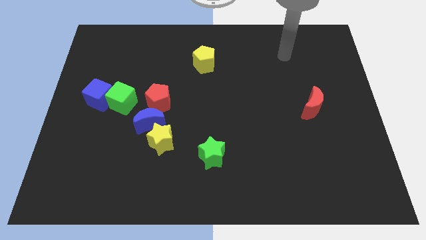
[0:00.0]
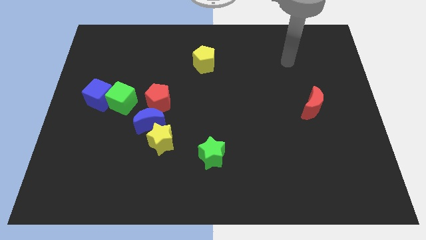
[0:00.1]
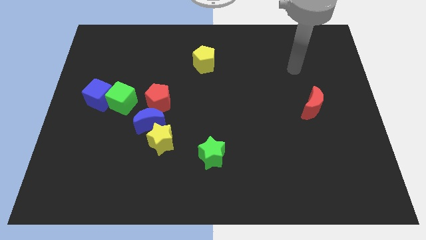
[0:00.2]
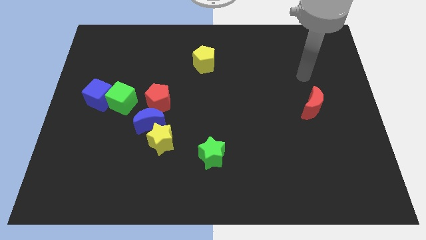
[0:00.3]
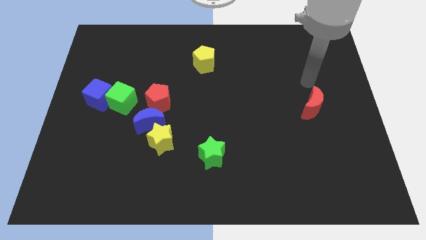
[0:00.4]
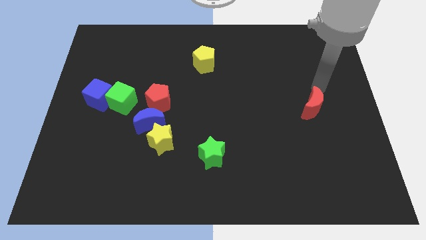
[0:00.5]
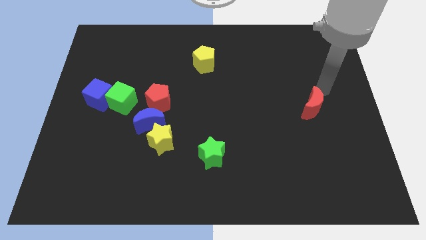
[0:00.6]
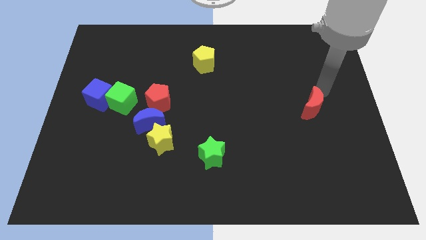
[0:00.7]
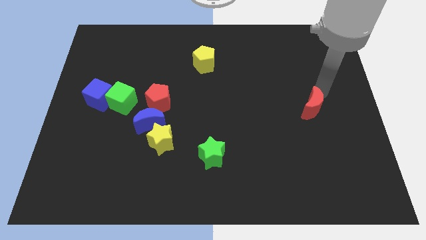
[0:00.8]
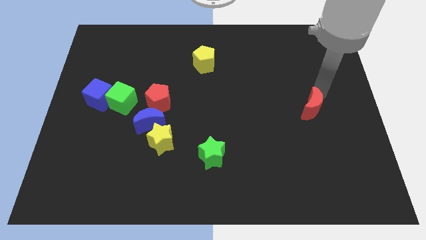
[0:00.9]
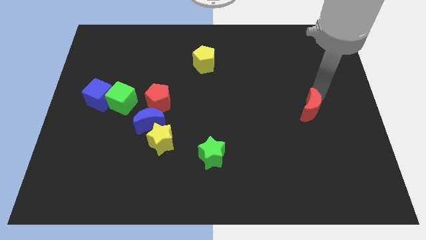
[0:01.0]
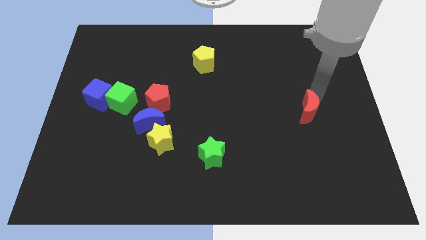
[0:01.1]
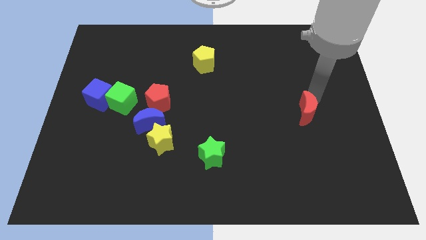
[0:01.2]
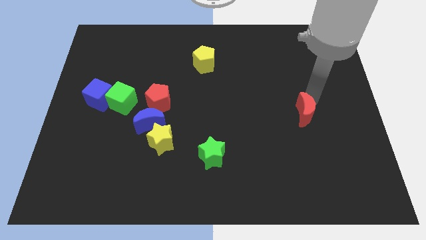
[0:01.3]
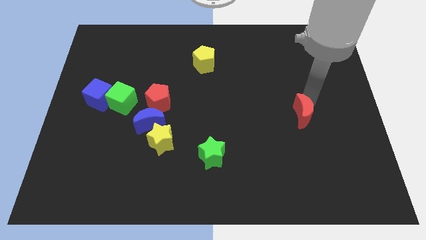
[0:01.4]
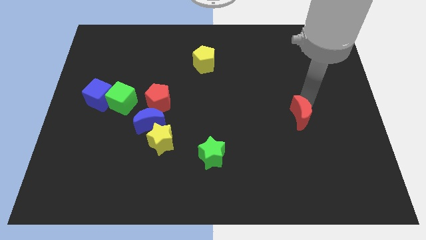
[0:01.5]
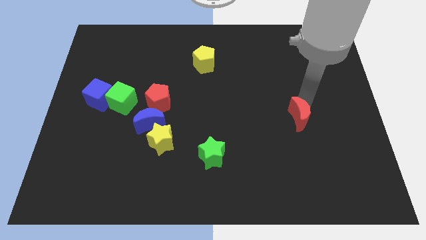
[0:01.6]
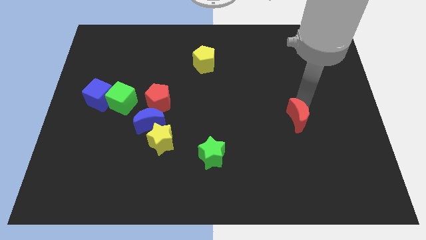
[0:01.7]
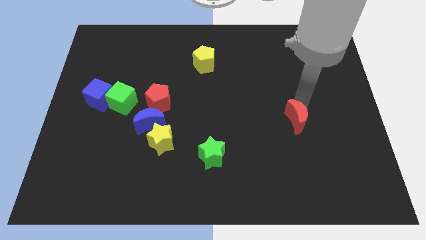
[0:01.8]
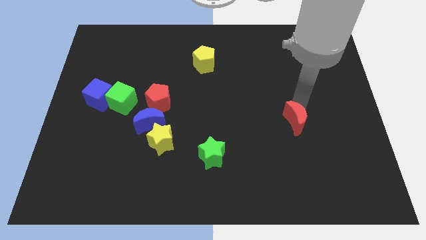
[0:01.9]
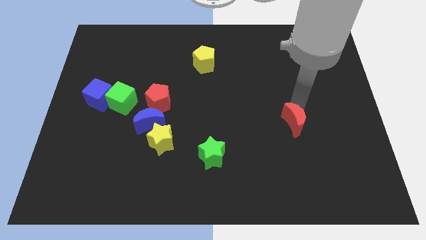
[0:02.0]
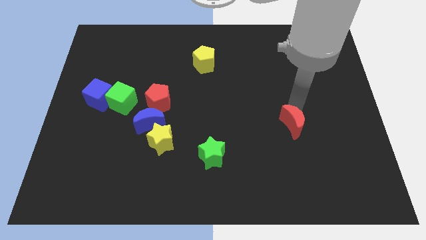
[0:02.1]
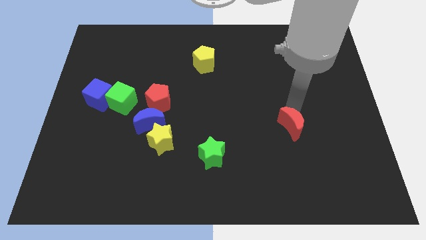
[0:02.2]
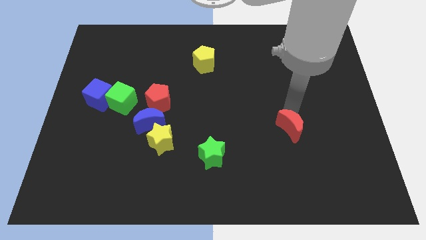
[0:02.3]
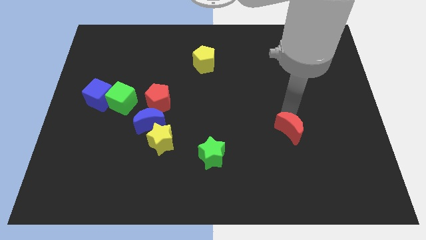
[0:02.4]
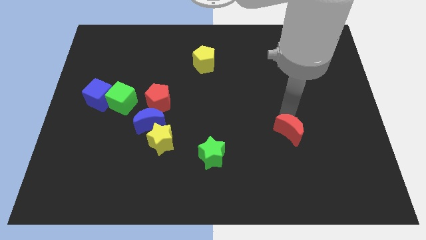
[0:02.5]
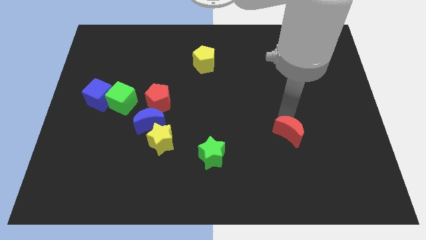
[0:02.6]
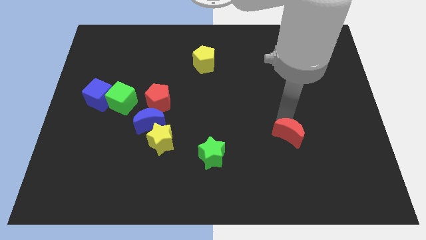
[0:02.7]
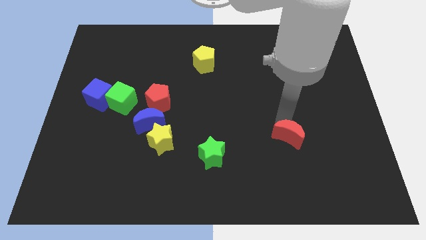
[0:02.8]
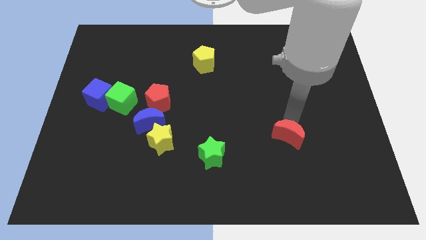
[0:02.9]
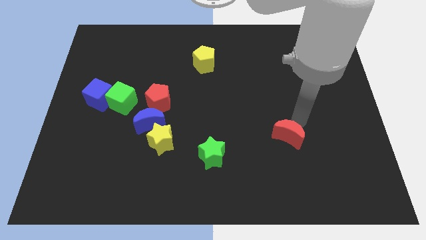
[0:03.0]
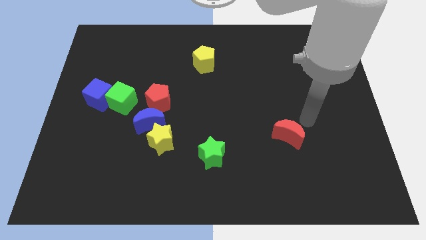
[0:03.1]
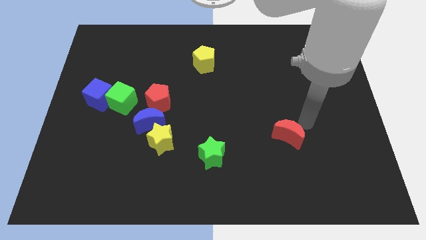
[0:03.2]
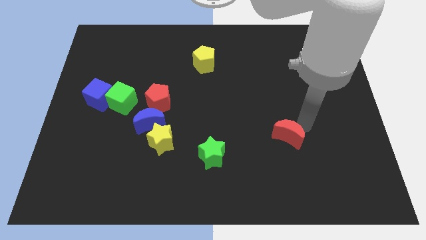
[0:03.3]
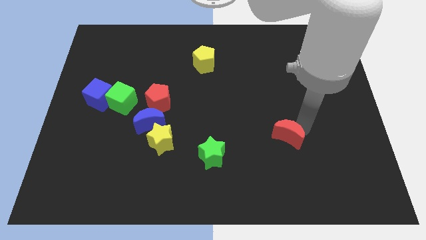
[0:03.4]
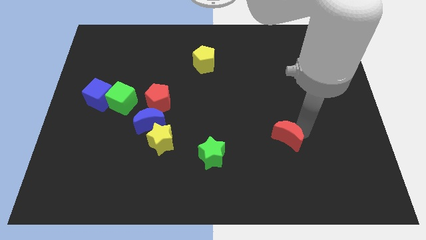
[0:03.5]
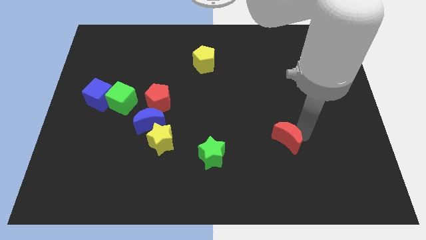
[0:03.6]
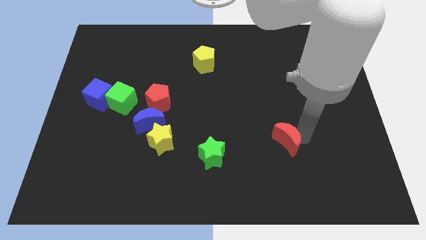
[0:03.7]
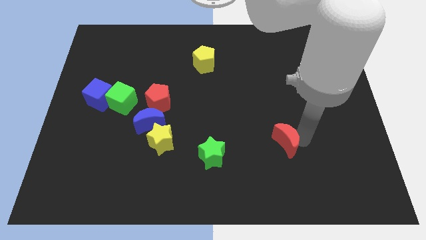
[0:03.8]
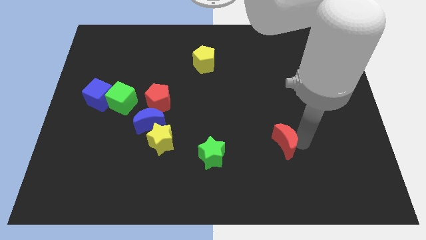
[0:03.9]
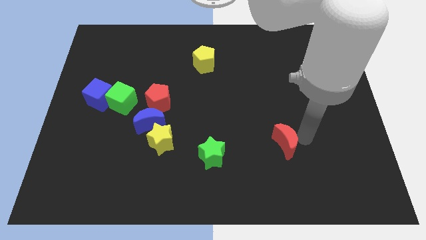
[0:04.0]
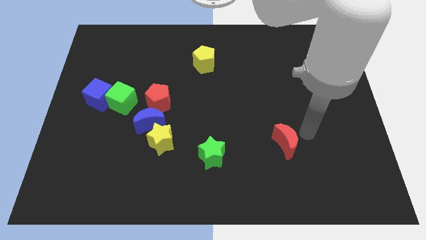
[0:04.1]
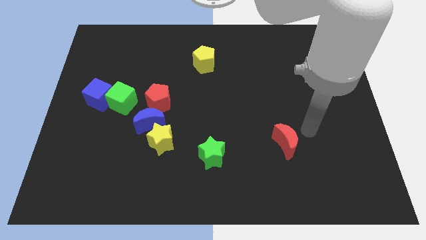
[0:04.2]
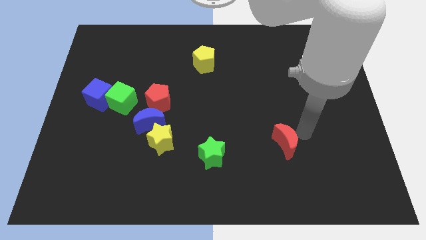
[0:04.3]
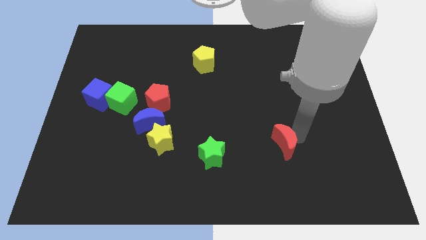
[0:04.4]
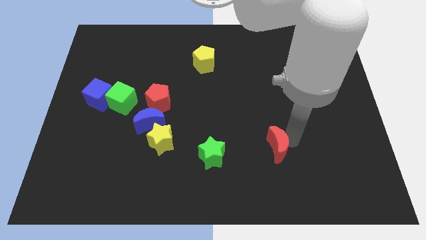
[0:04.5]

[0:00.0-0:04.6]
move the red moon to the right side of the green star

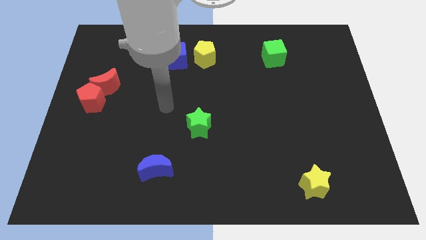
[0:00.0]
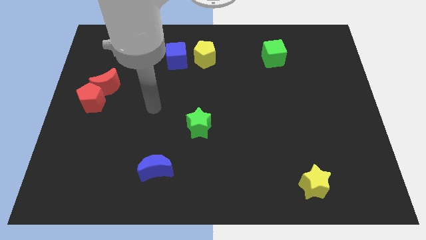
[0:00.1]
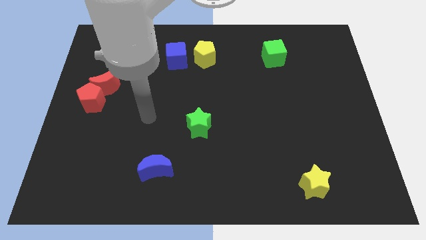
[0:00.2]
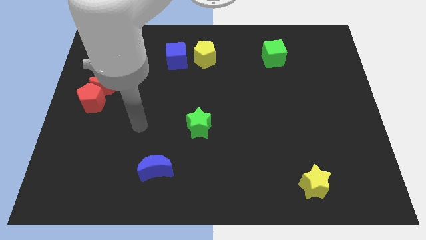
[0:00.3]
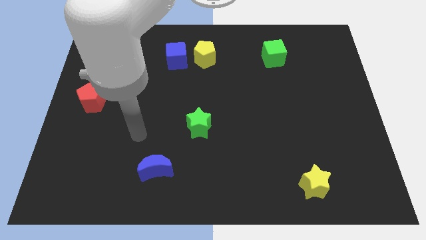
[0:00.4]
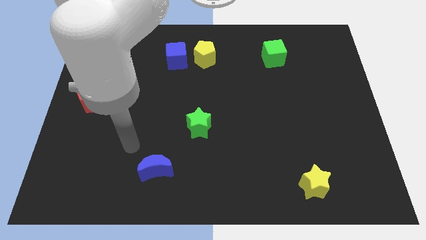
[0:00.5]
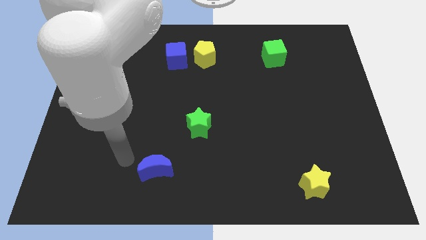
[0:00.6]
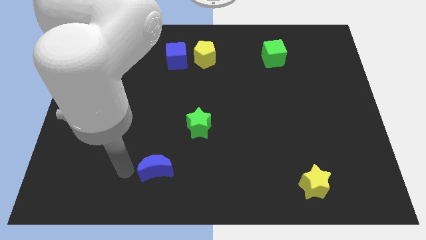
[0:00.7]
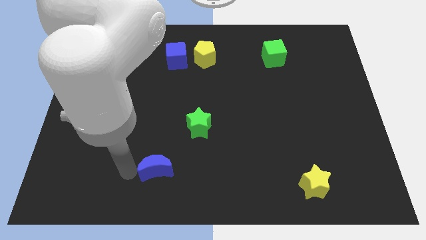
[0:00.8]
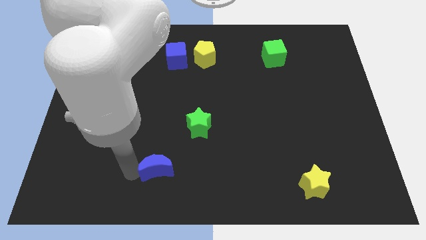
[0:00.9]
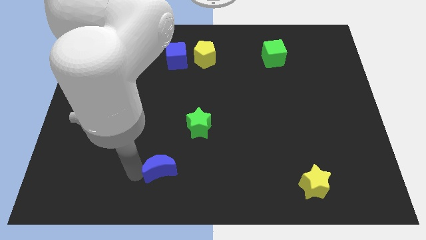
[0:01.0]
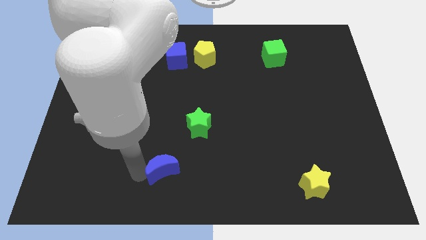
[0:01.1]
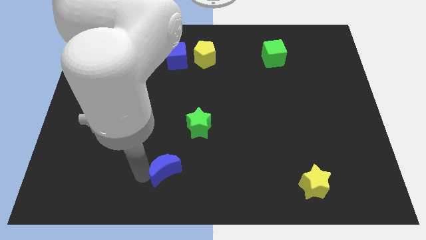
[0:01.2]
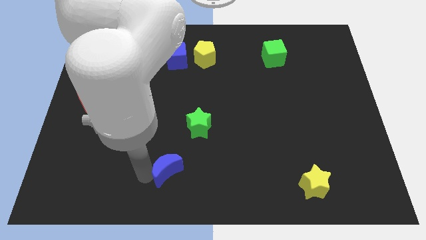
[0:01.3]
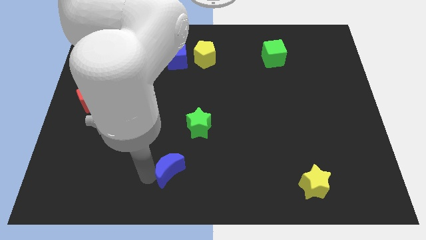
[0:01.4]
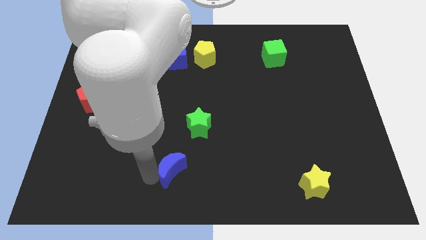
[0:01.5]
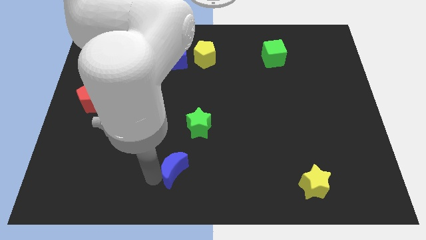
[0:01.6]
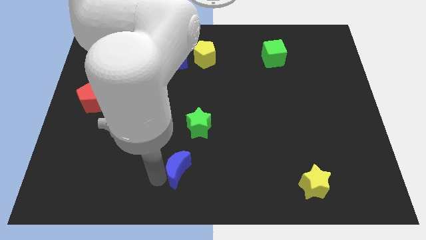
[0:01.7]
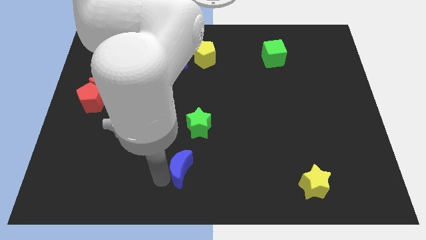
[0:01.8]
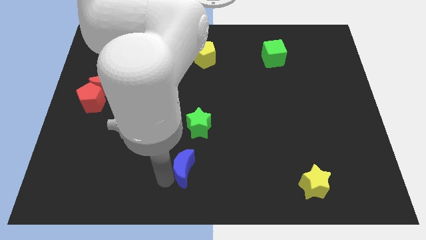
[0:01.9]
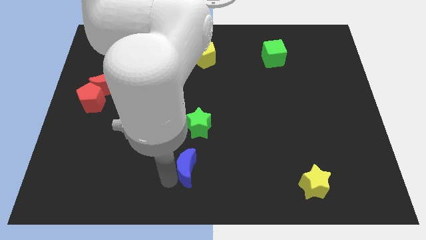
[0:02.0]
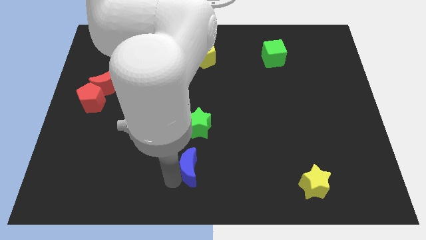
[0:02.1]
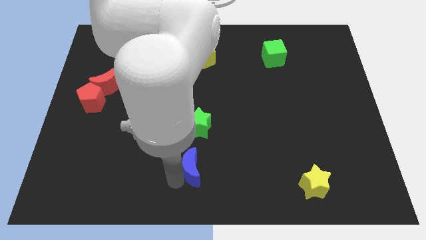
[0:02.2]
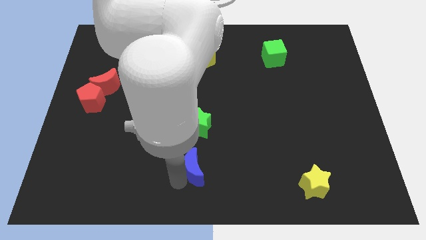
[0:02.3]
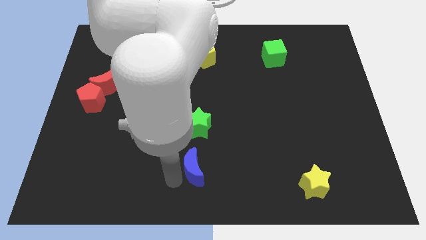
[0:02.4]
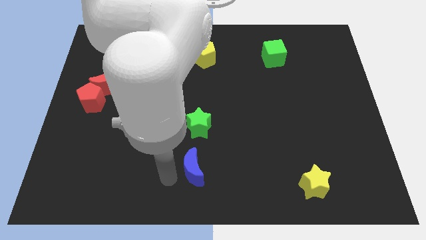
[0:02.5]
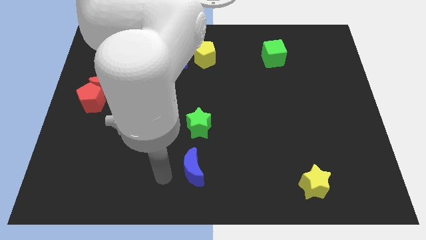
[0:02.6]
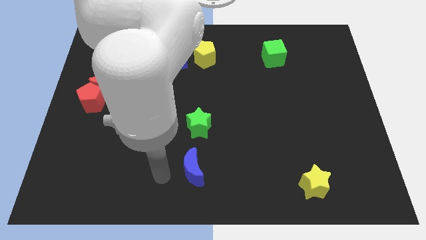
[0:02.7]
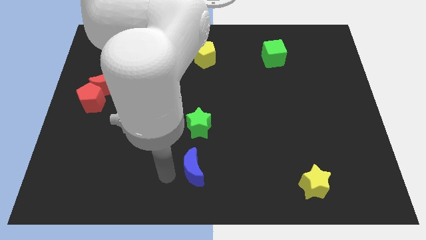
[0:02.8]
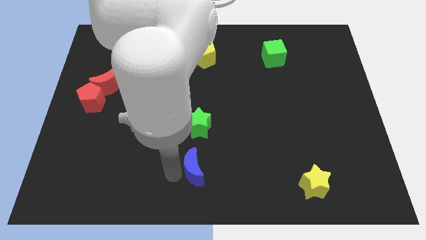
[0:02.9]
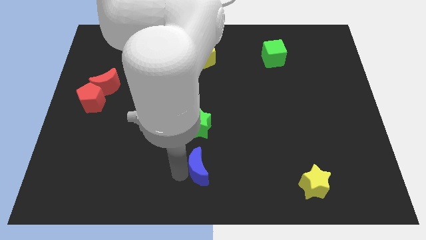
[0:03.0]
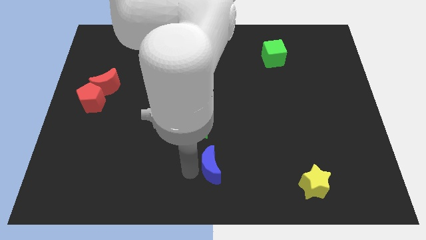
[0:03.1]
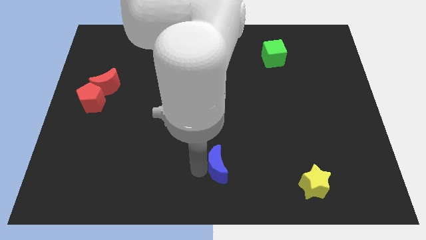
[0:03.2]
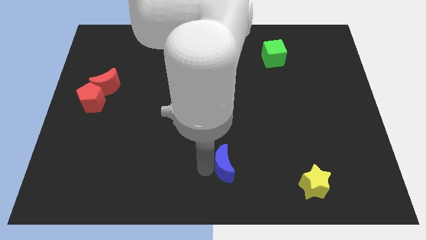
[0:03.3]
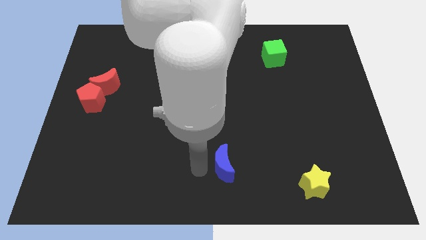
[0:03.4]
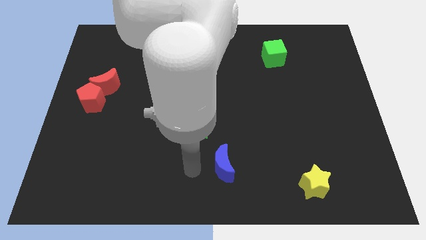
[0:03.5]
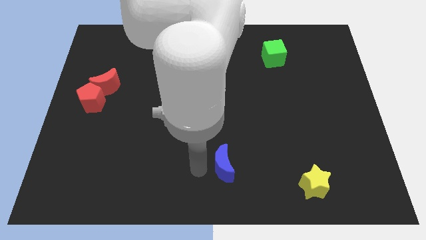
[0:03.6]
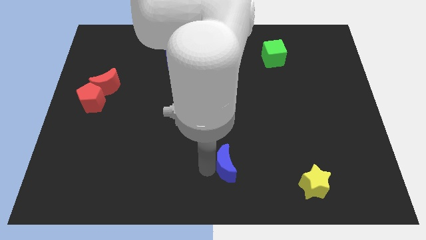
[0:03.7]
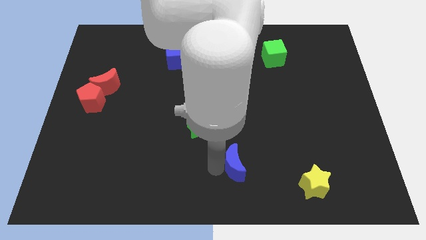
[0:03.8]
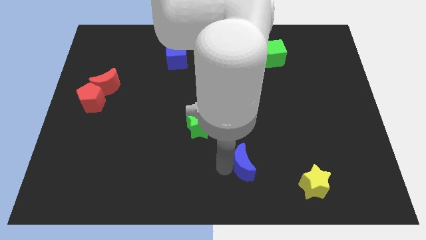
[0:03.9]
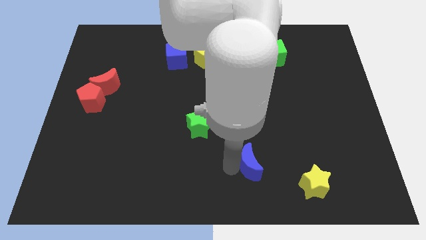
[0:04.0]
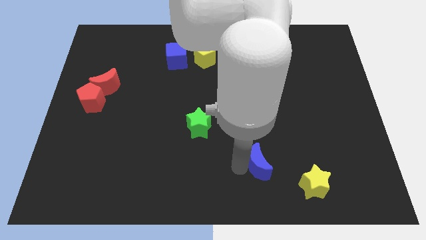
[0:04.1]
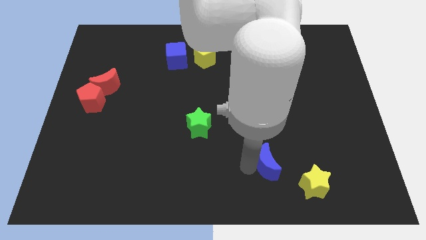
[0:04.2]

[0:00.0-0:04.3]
put the blue moon to the top left of the yellow star
